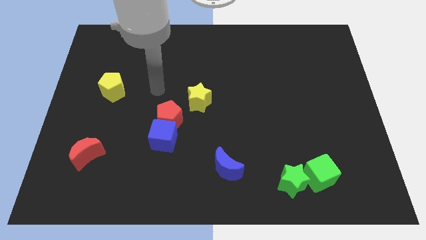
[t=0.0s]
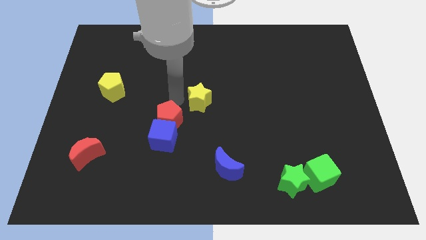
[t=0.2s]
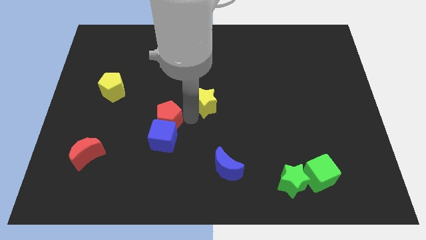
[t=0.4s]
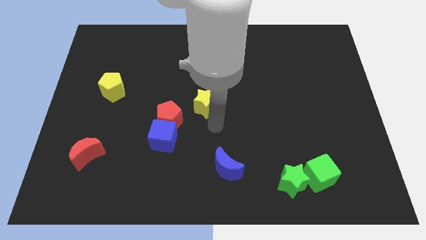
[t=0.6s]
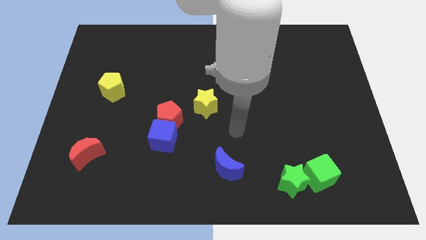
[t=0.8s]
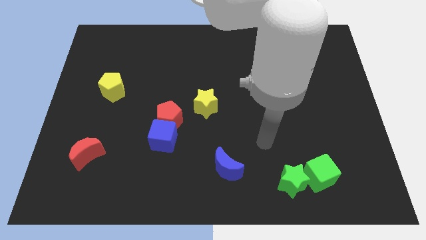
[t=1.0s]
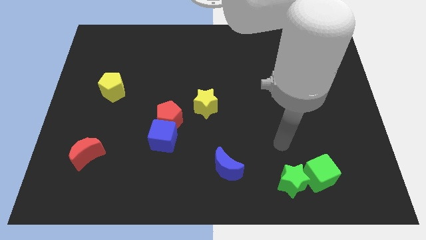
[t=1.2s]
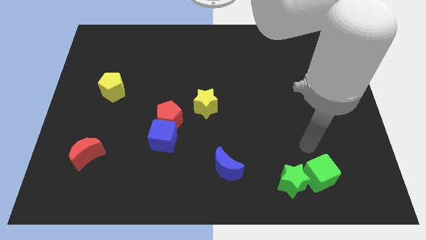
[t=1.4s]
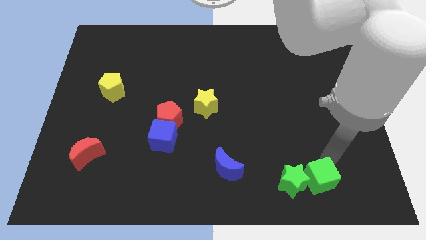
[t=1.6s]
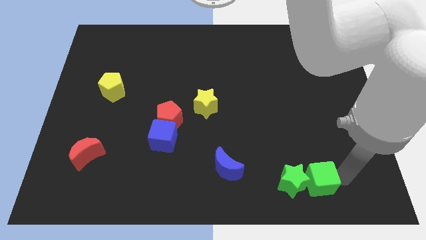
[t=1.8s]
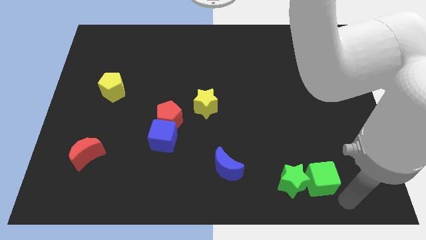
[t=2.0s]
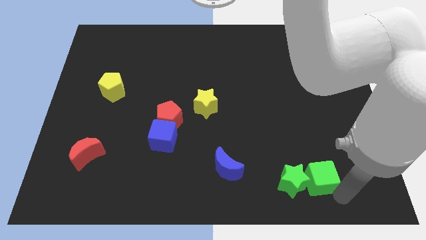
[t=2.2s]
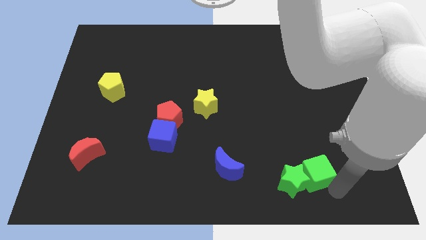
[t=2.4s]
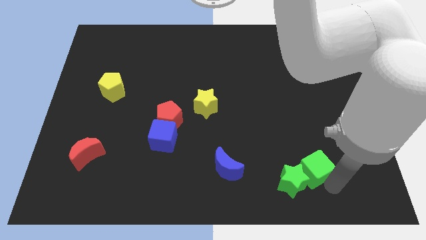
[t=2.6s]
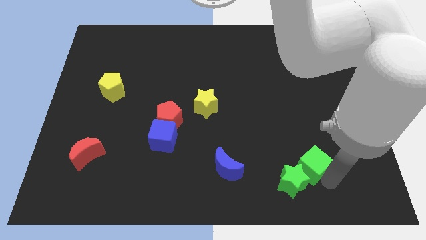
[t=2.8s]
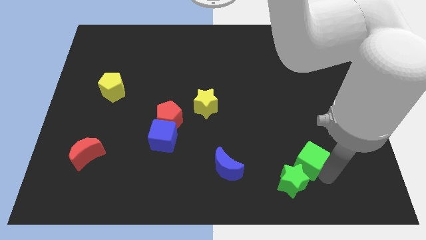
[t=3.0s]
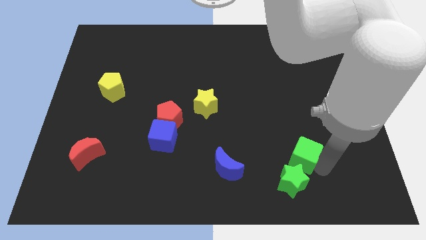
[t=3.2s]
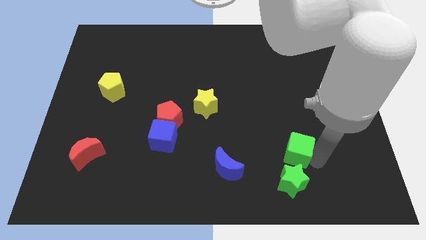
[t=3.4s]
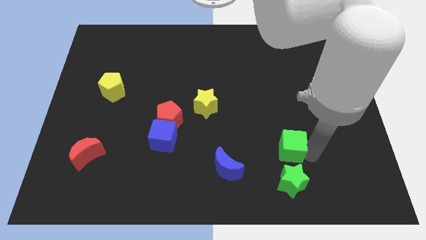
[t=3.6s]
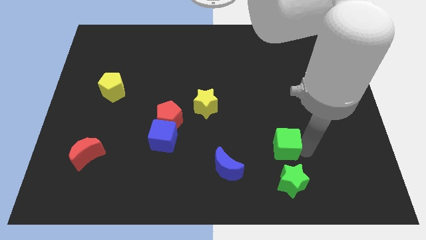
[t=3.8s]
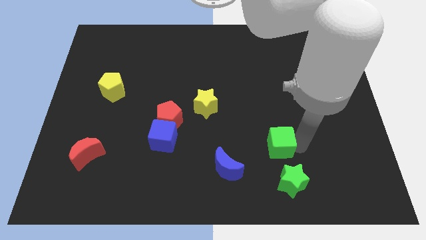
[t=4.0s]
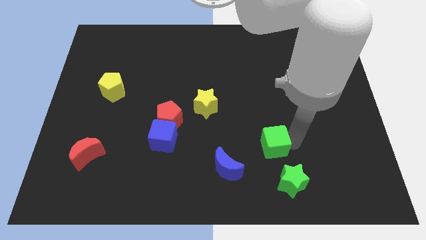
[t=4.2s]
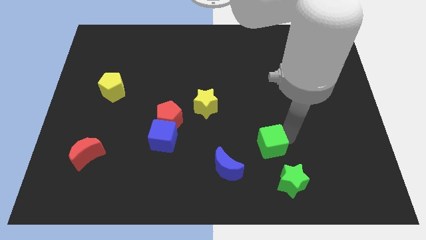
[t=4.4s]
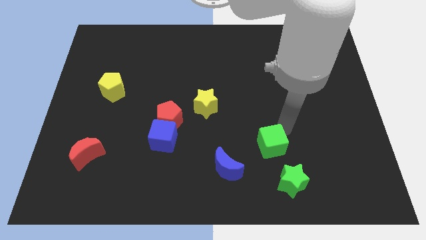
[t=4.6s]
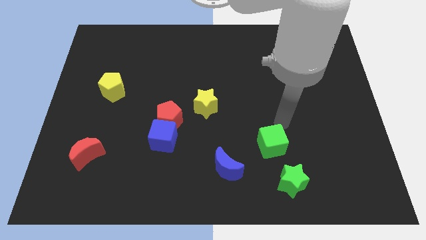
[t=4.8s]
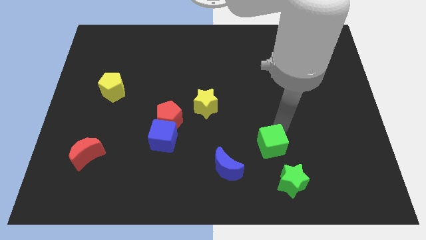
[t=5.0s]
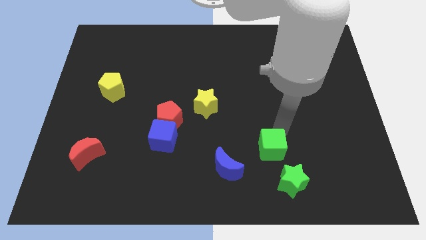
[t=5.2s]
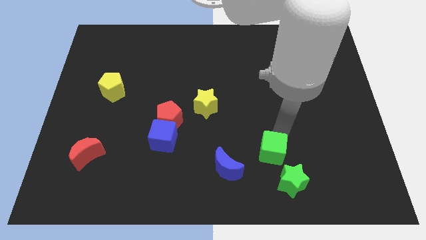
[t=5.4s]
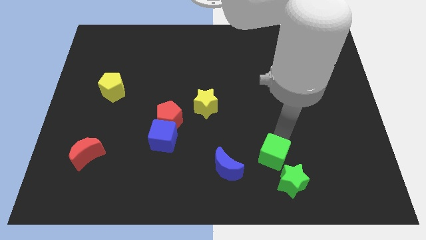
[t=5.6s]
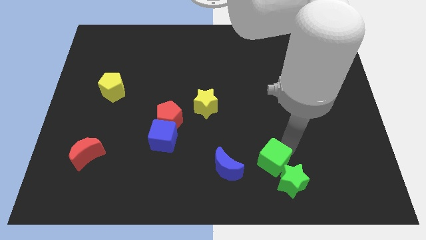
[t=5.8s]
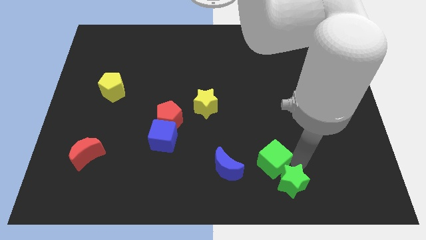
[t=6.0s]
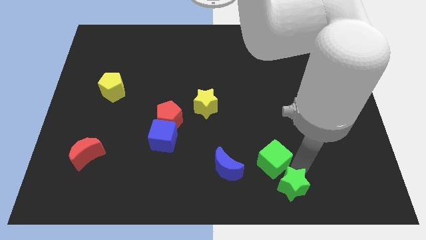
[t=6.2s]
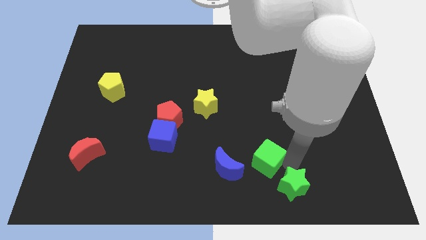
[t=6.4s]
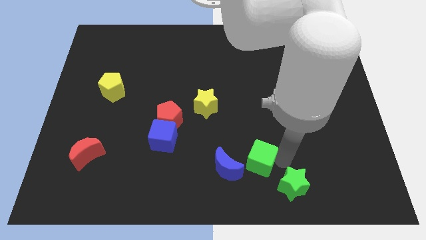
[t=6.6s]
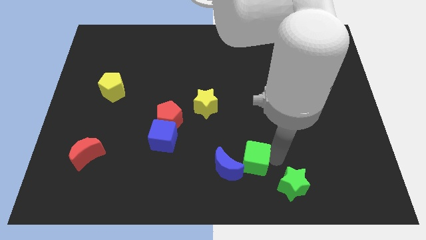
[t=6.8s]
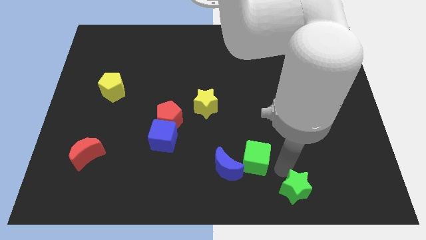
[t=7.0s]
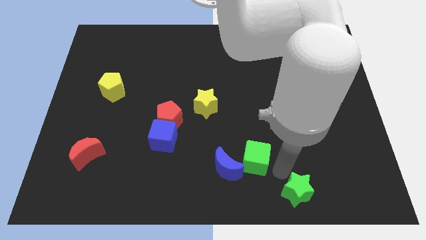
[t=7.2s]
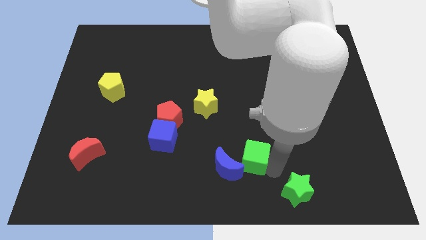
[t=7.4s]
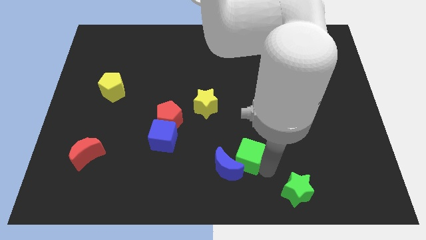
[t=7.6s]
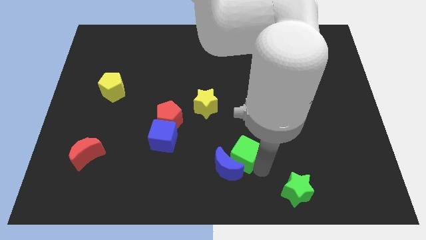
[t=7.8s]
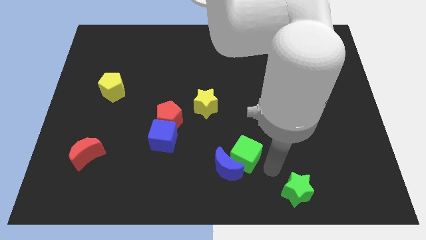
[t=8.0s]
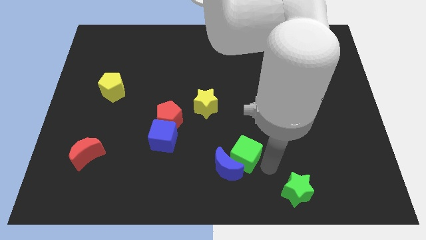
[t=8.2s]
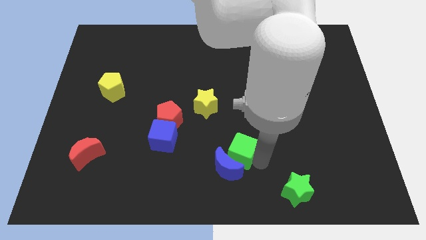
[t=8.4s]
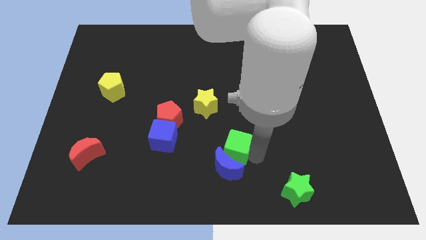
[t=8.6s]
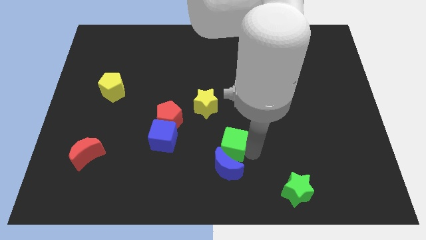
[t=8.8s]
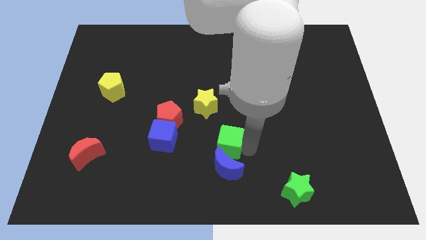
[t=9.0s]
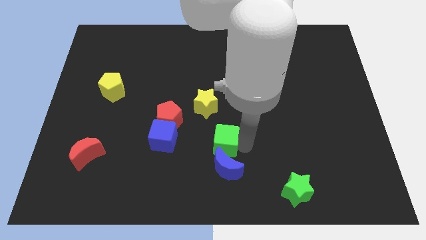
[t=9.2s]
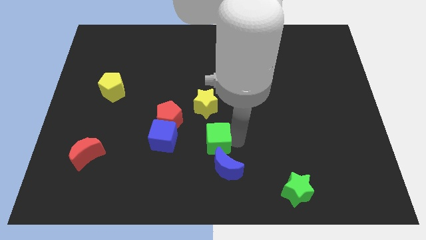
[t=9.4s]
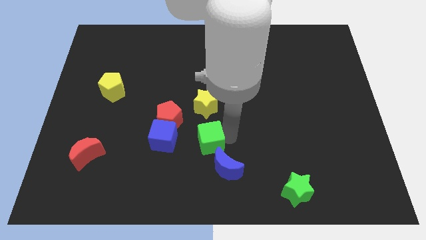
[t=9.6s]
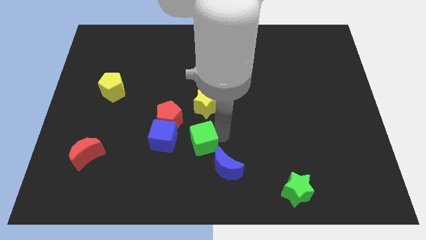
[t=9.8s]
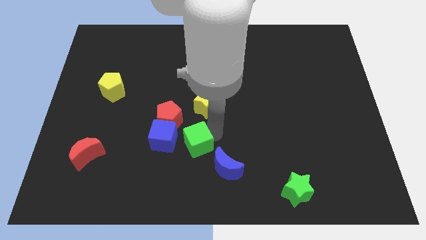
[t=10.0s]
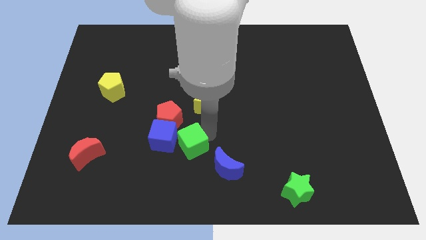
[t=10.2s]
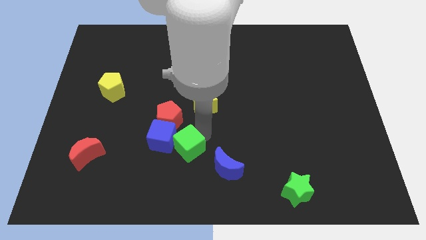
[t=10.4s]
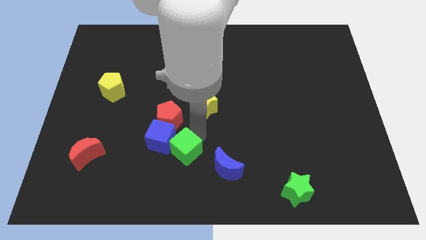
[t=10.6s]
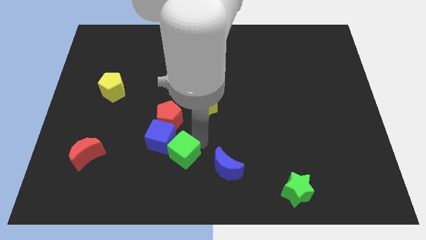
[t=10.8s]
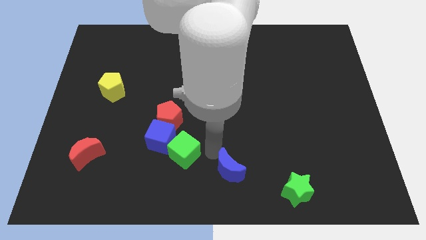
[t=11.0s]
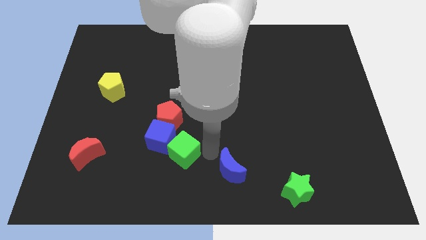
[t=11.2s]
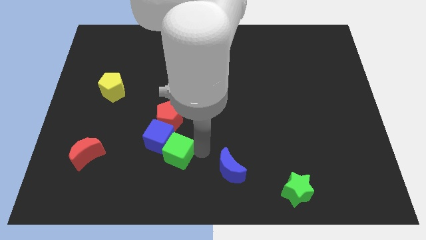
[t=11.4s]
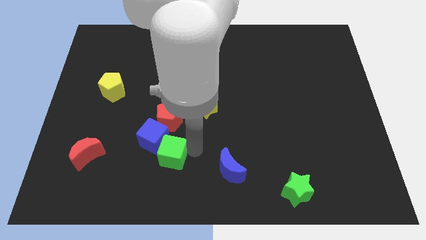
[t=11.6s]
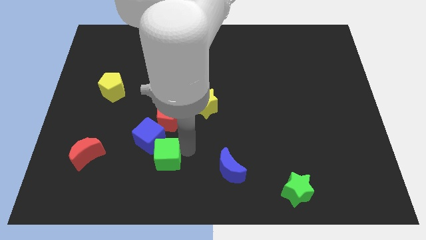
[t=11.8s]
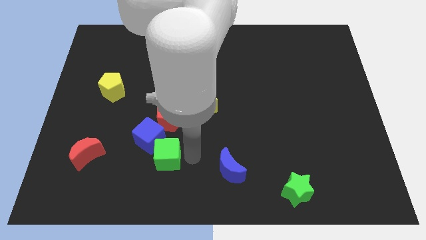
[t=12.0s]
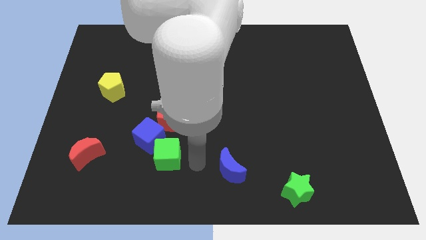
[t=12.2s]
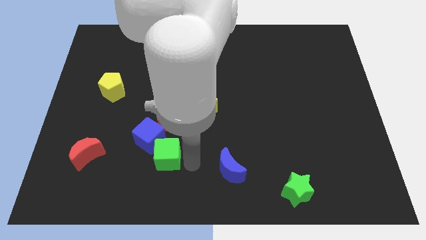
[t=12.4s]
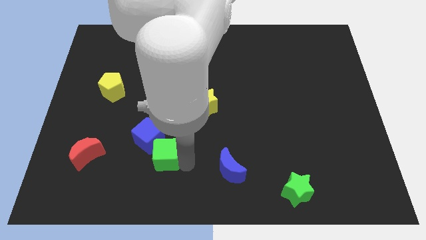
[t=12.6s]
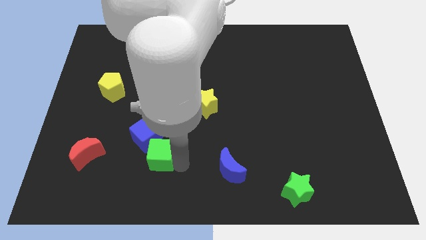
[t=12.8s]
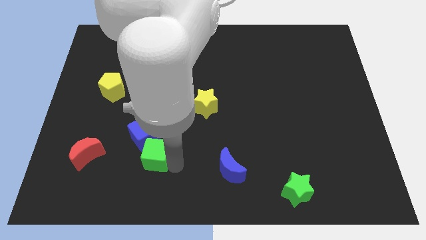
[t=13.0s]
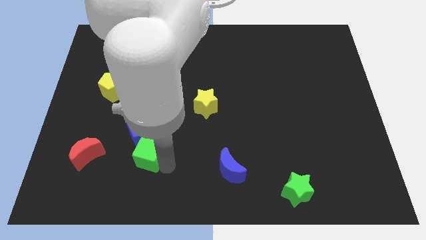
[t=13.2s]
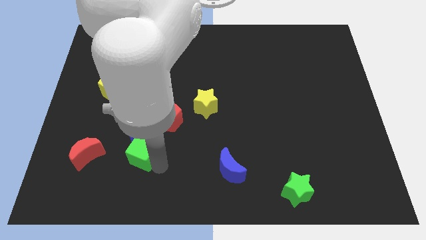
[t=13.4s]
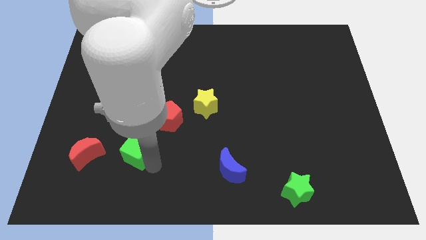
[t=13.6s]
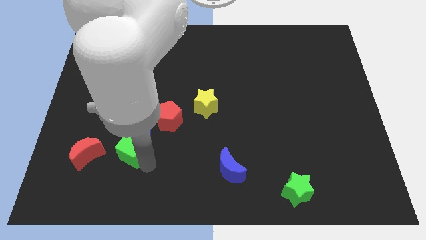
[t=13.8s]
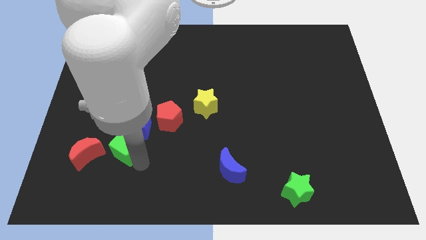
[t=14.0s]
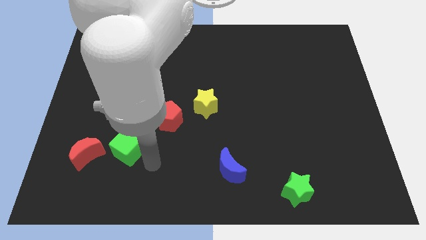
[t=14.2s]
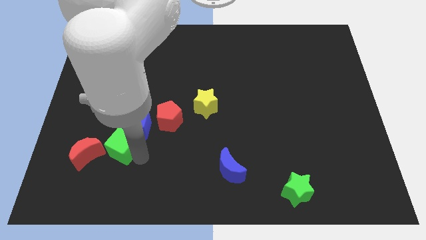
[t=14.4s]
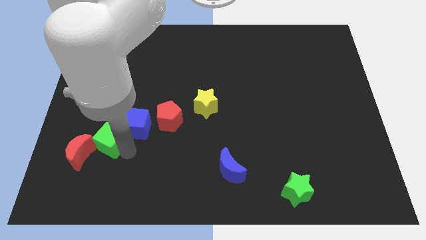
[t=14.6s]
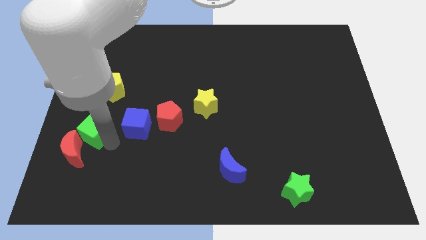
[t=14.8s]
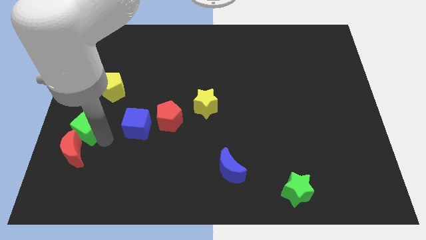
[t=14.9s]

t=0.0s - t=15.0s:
slide the green cube to the left side of the board
